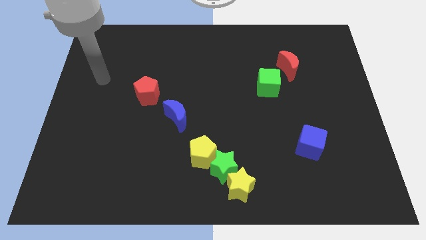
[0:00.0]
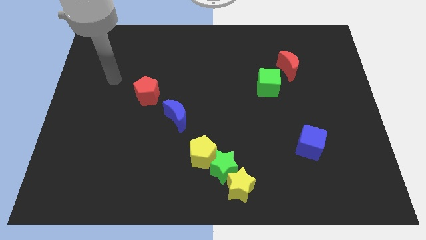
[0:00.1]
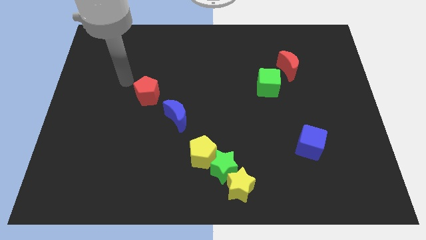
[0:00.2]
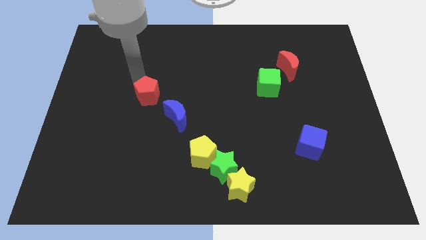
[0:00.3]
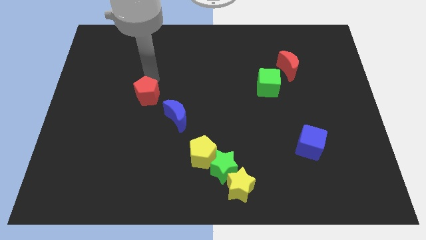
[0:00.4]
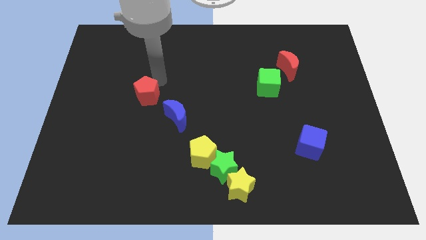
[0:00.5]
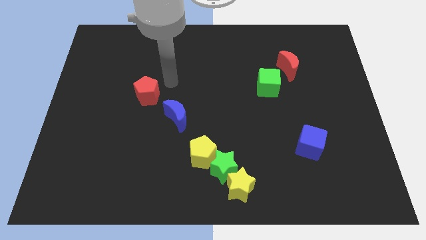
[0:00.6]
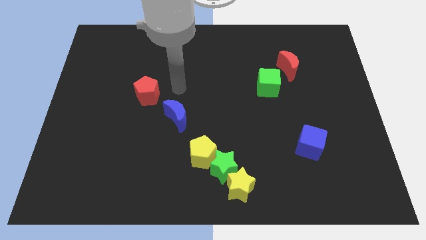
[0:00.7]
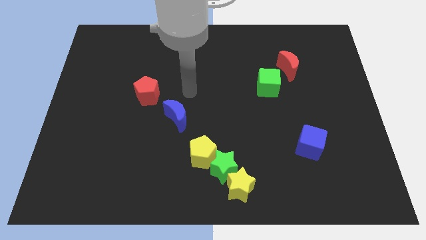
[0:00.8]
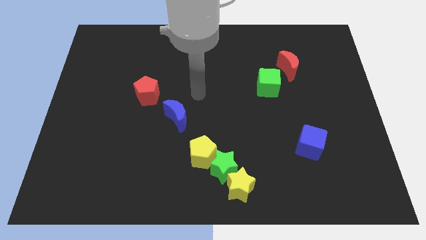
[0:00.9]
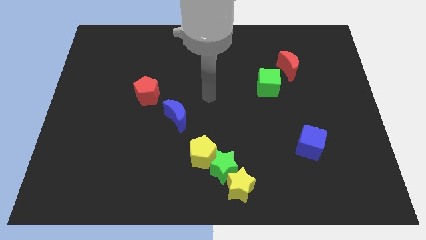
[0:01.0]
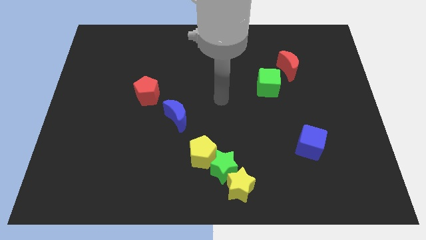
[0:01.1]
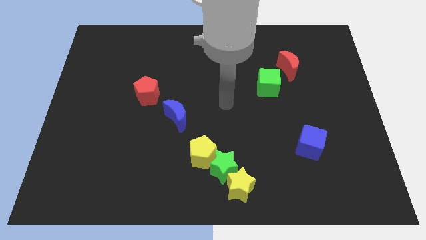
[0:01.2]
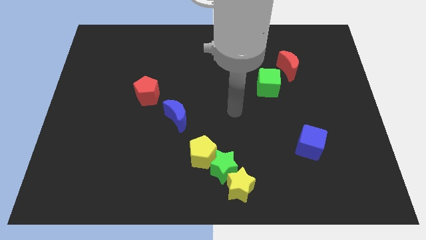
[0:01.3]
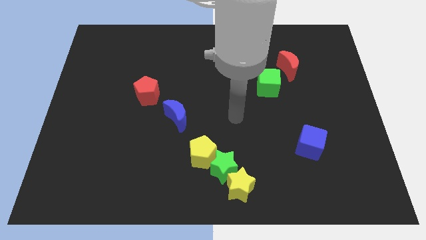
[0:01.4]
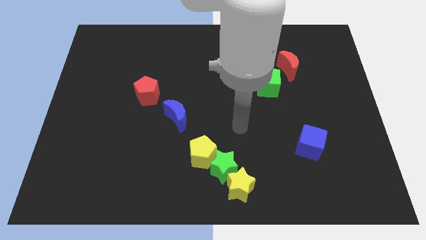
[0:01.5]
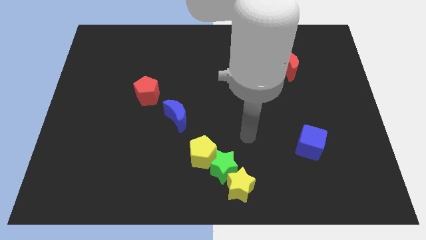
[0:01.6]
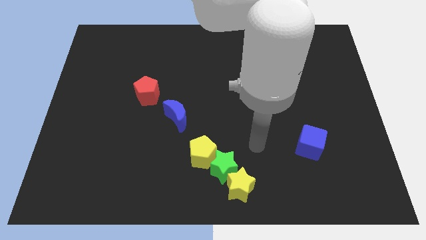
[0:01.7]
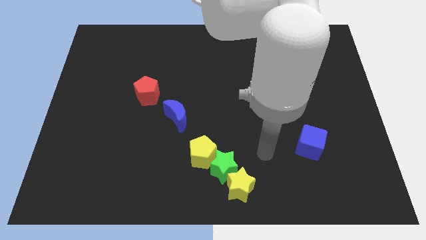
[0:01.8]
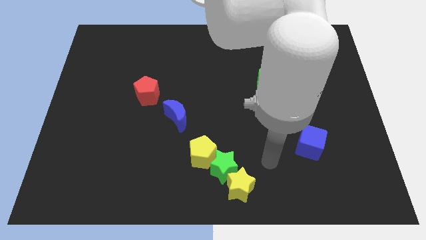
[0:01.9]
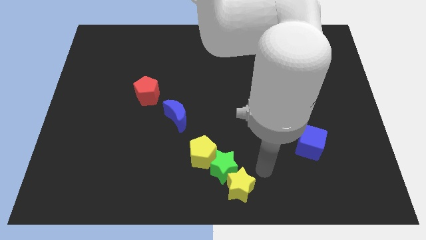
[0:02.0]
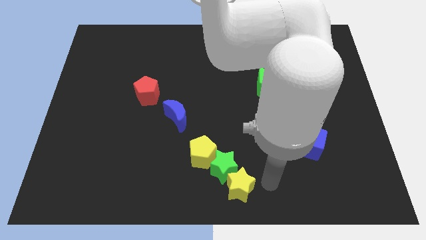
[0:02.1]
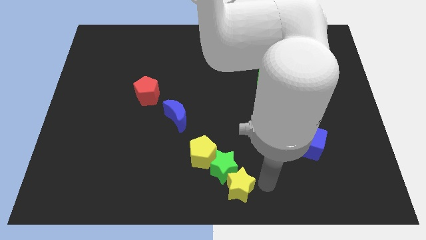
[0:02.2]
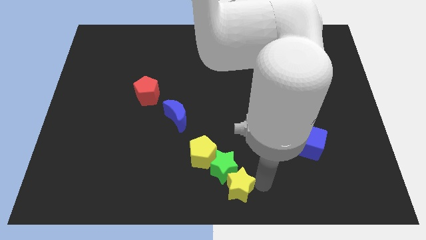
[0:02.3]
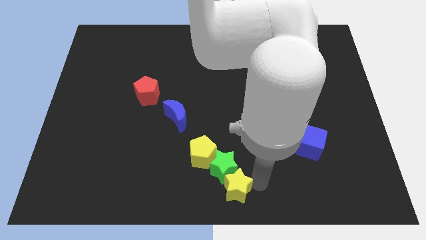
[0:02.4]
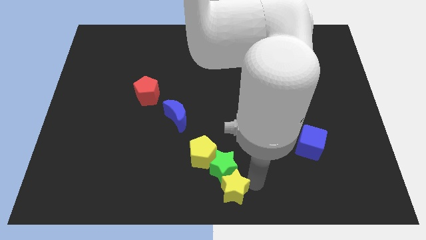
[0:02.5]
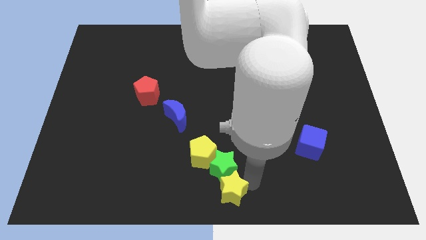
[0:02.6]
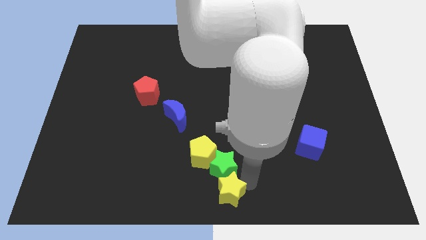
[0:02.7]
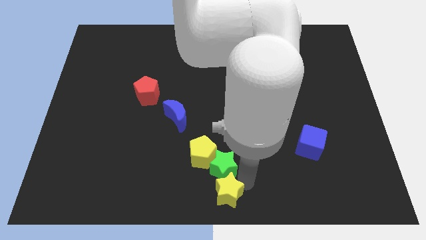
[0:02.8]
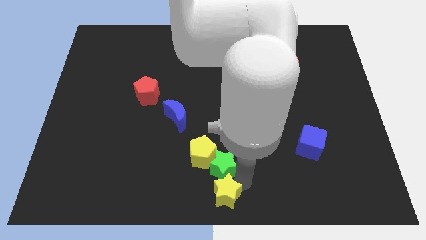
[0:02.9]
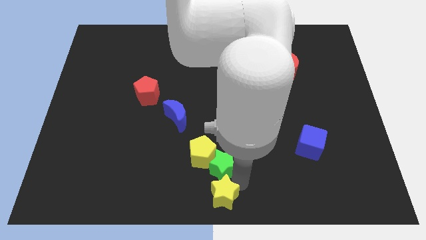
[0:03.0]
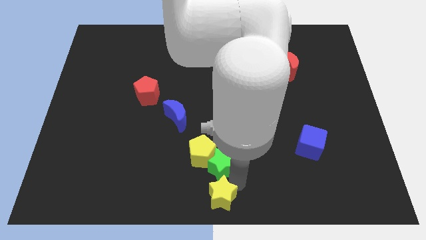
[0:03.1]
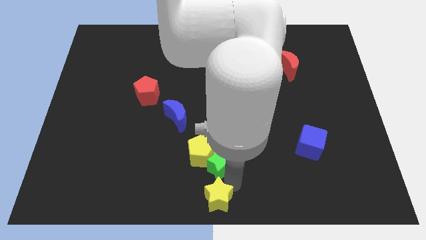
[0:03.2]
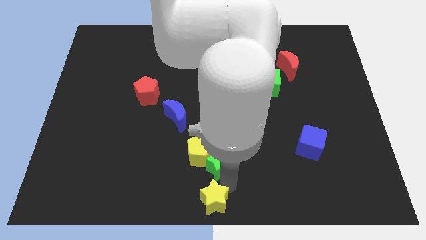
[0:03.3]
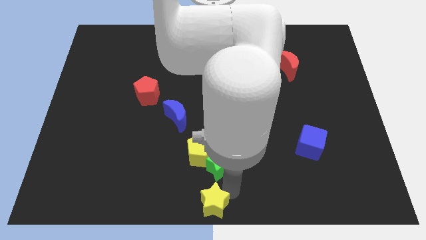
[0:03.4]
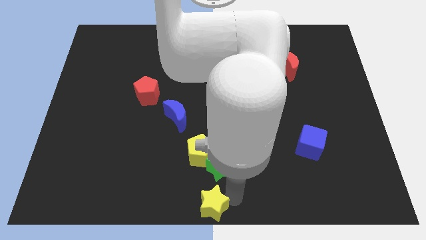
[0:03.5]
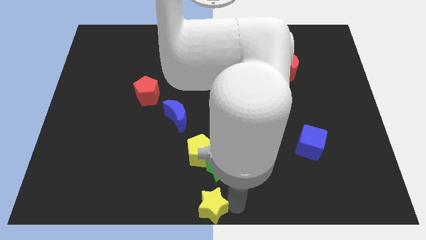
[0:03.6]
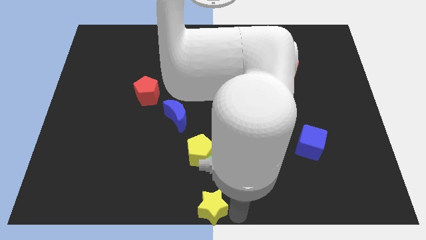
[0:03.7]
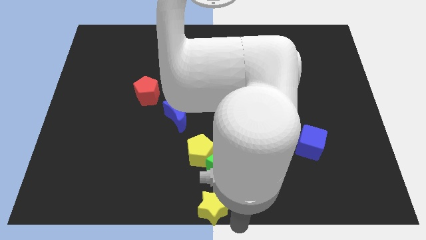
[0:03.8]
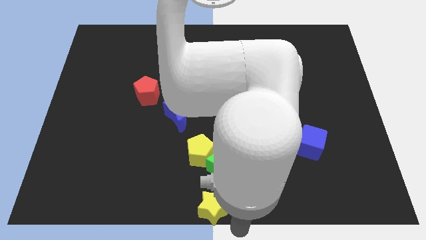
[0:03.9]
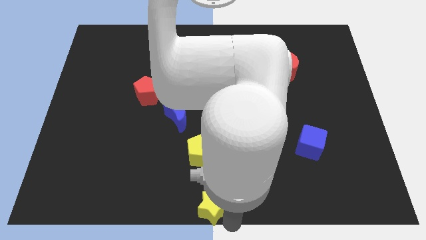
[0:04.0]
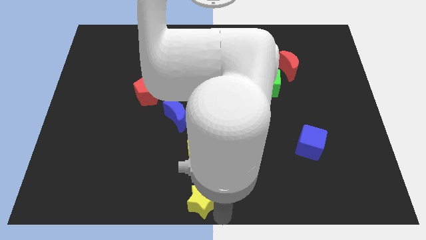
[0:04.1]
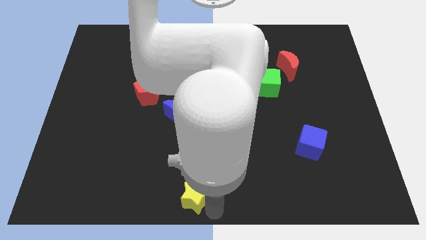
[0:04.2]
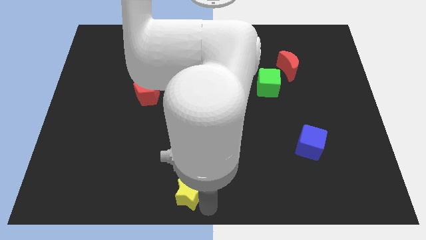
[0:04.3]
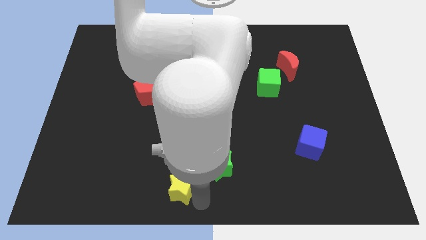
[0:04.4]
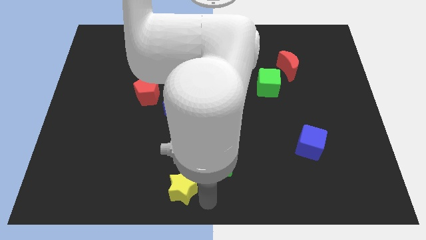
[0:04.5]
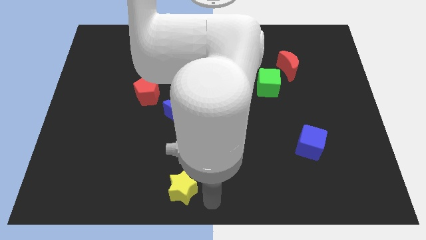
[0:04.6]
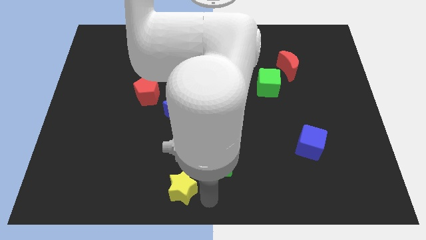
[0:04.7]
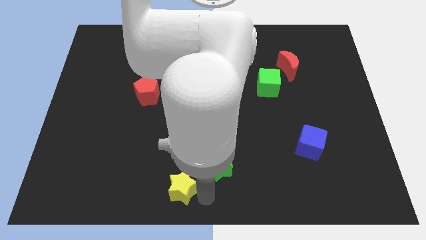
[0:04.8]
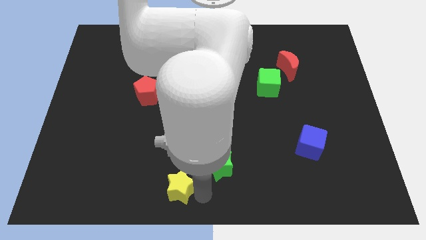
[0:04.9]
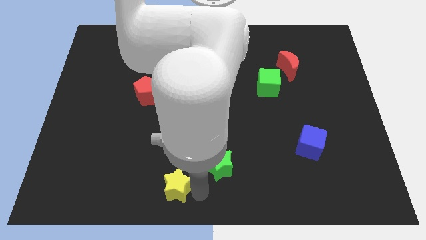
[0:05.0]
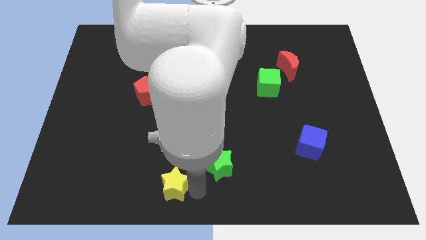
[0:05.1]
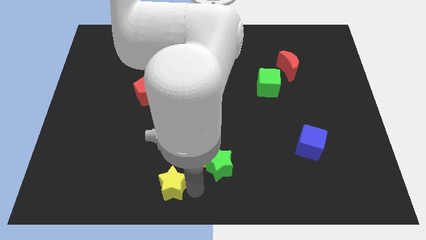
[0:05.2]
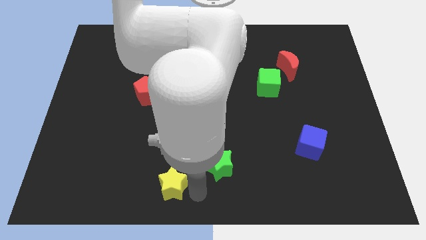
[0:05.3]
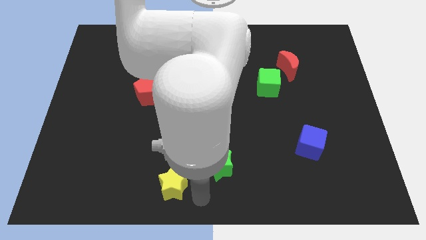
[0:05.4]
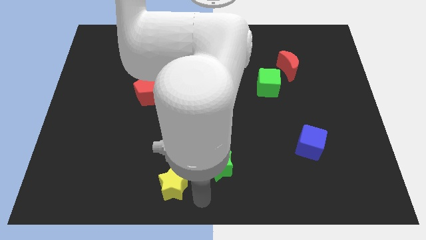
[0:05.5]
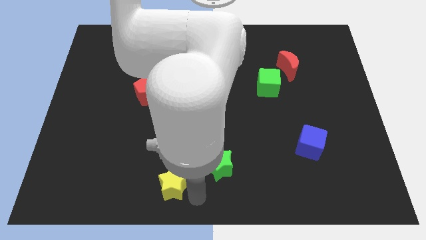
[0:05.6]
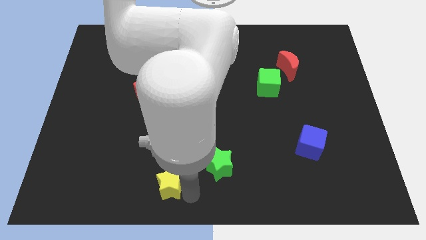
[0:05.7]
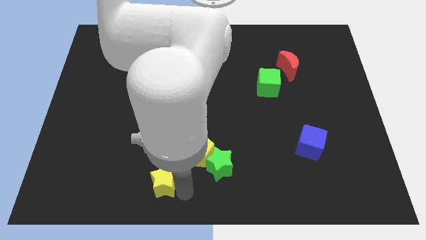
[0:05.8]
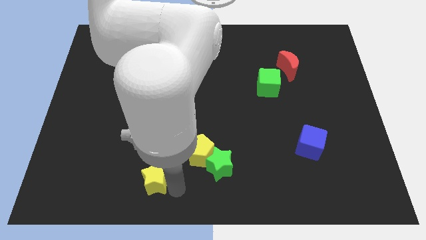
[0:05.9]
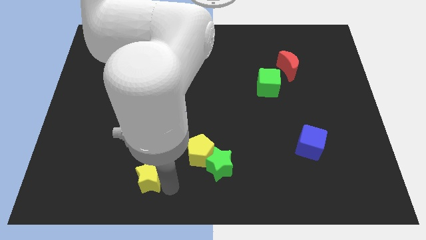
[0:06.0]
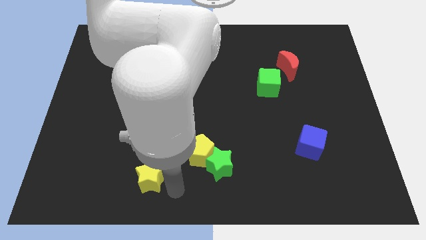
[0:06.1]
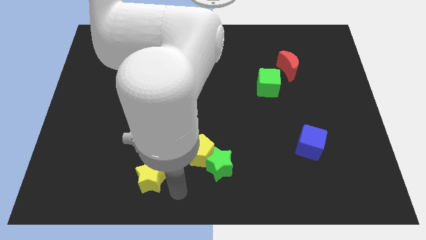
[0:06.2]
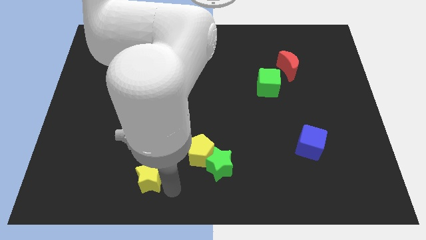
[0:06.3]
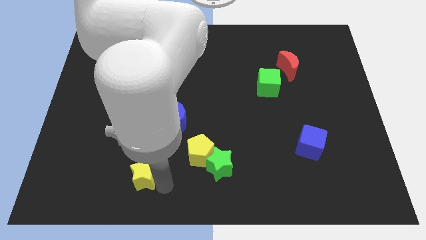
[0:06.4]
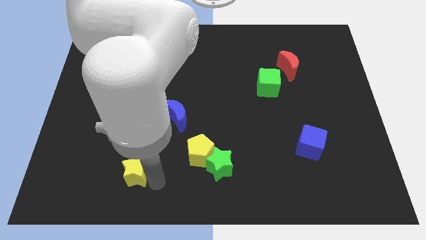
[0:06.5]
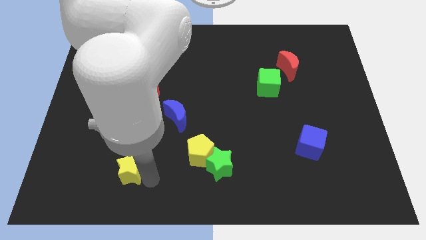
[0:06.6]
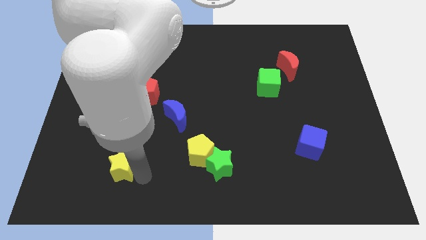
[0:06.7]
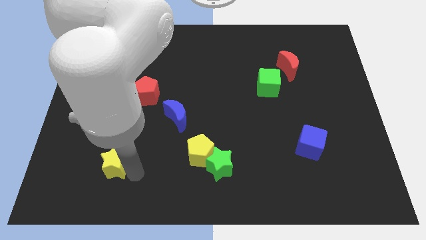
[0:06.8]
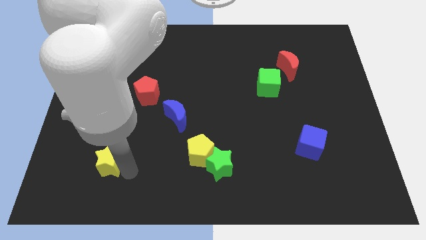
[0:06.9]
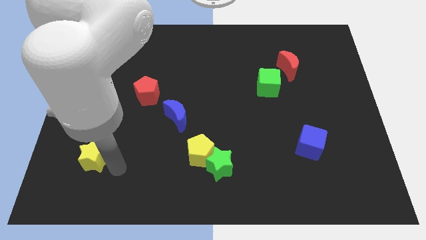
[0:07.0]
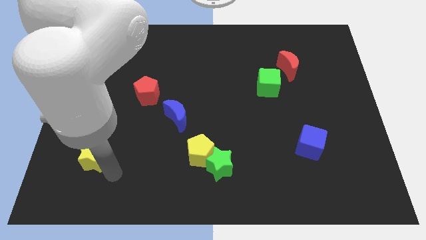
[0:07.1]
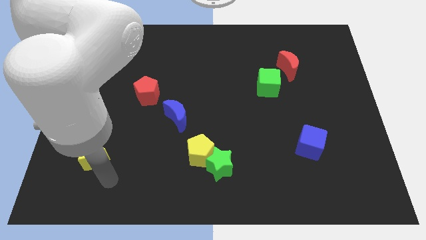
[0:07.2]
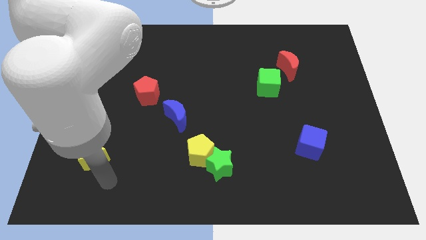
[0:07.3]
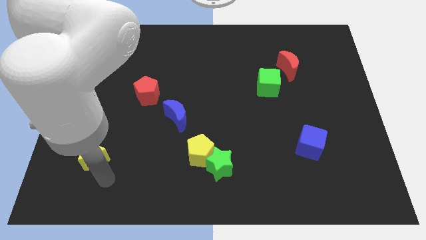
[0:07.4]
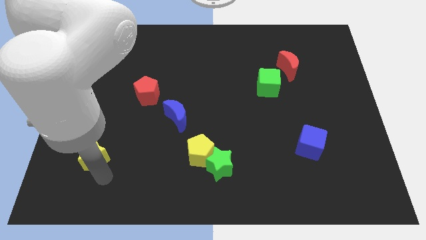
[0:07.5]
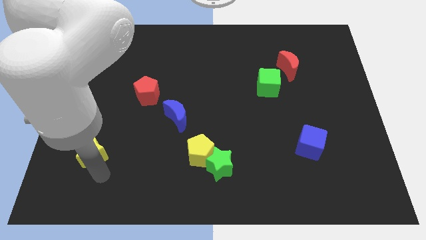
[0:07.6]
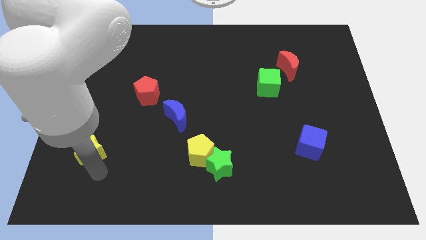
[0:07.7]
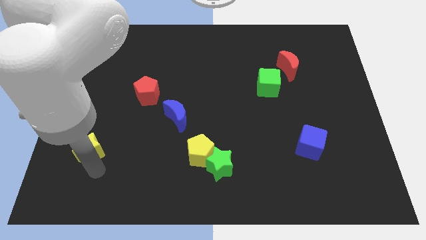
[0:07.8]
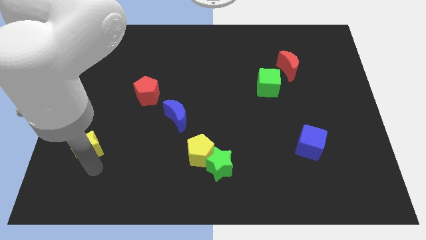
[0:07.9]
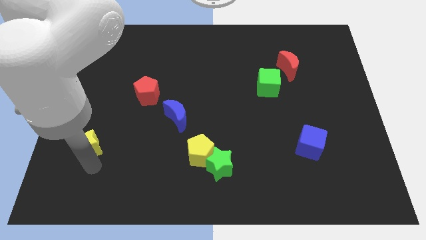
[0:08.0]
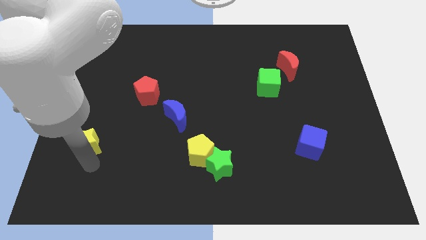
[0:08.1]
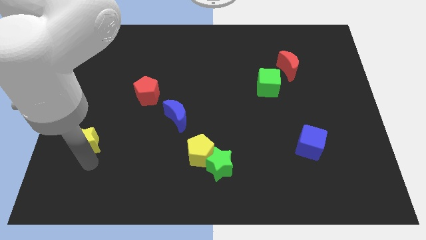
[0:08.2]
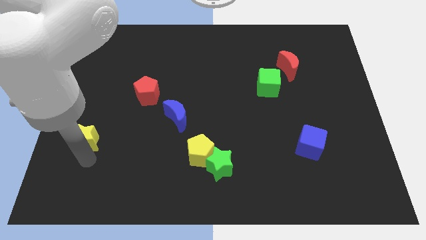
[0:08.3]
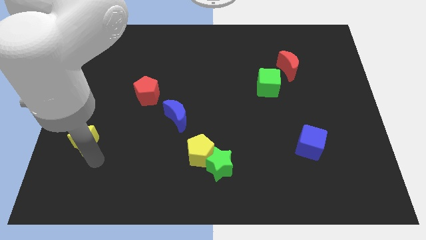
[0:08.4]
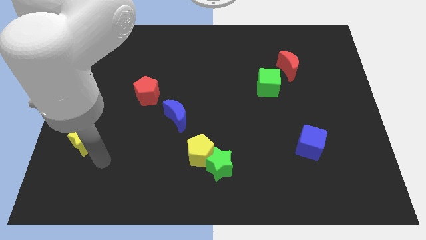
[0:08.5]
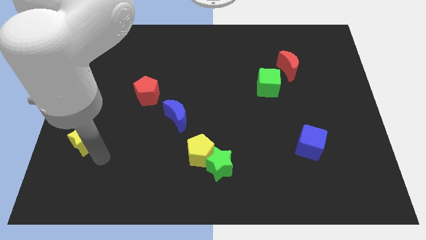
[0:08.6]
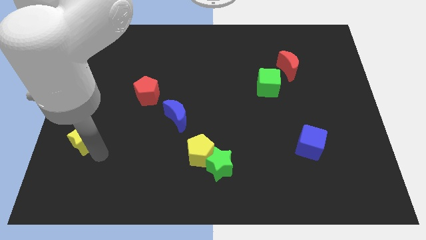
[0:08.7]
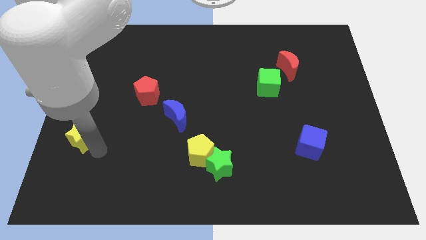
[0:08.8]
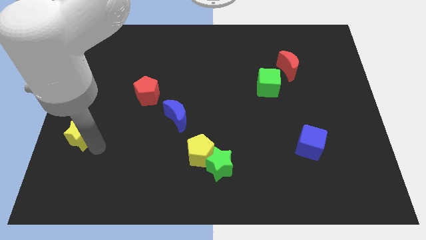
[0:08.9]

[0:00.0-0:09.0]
move the yellow star to the left side
